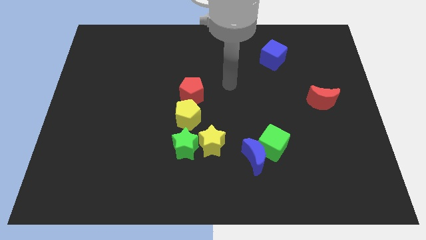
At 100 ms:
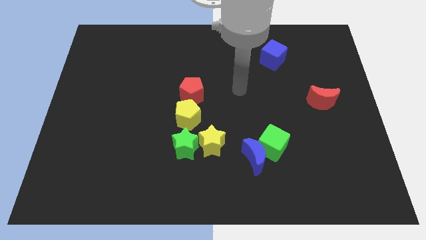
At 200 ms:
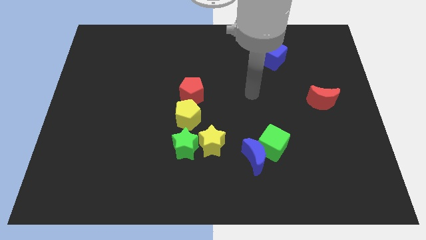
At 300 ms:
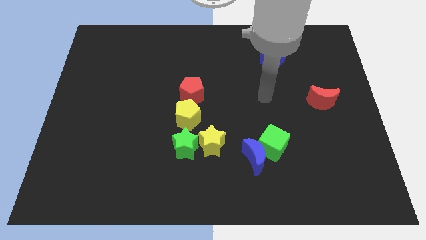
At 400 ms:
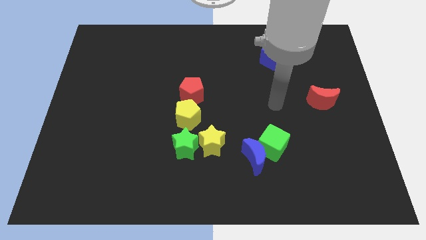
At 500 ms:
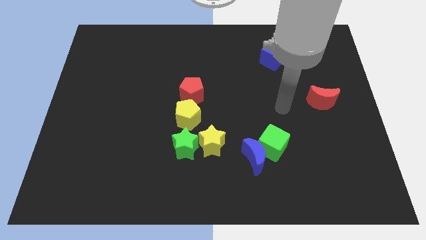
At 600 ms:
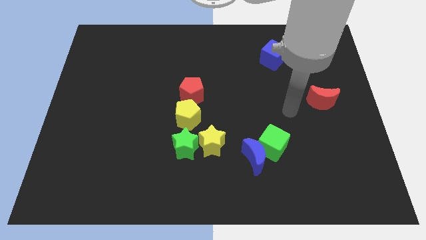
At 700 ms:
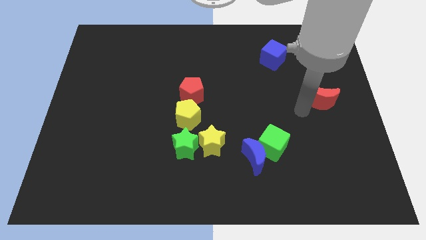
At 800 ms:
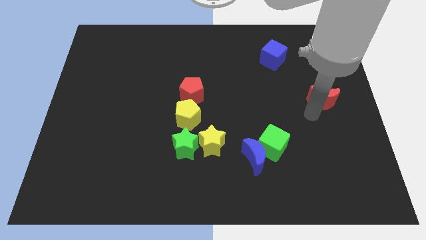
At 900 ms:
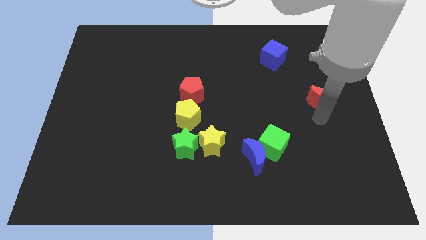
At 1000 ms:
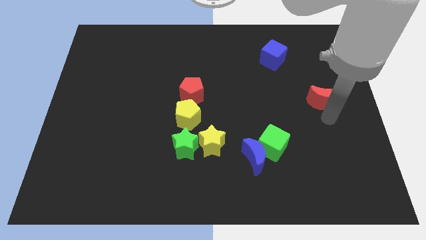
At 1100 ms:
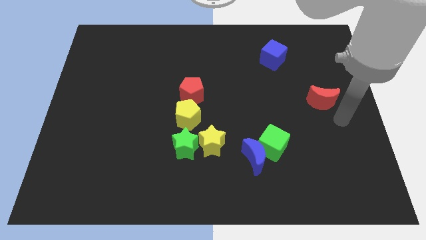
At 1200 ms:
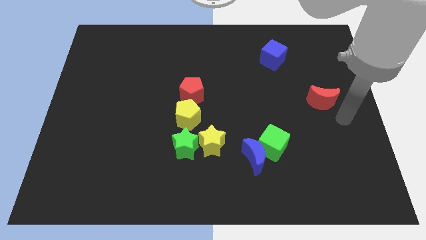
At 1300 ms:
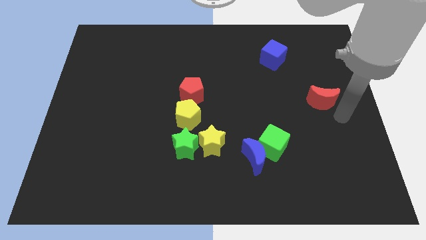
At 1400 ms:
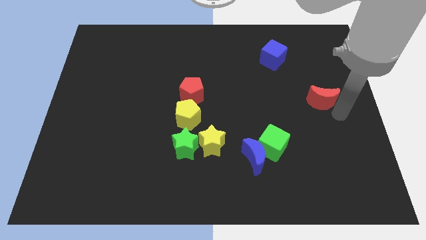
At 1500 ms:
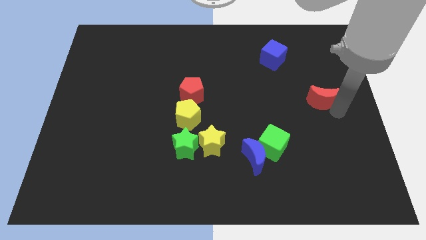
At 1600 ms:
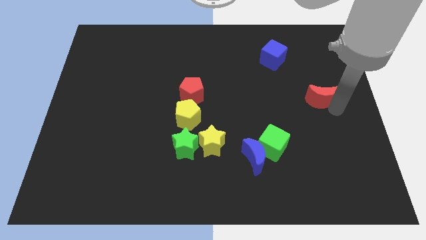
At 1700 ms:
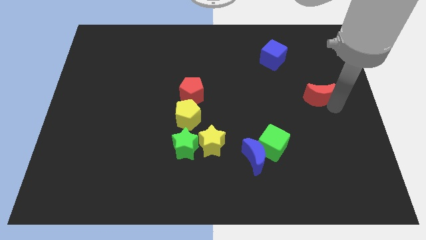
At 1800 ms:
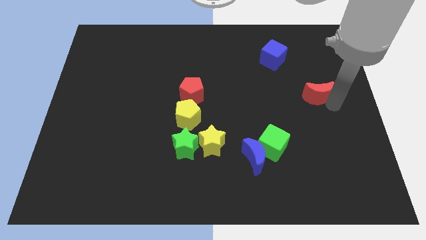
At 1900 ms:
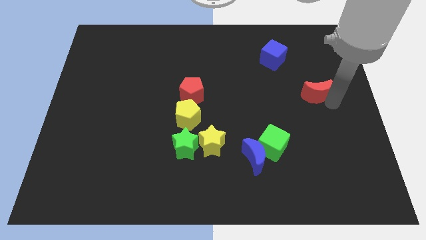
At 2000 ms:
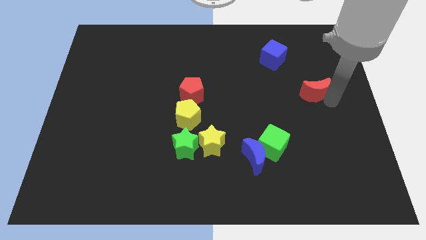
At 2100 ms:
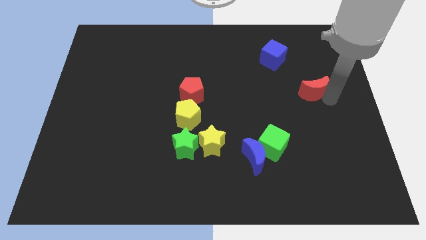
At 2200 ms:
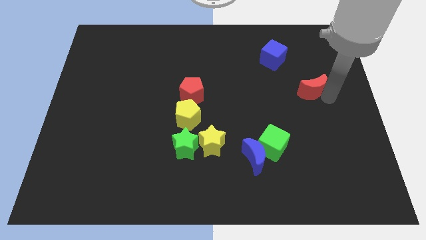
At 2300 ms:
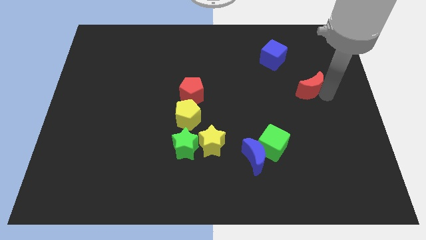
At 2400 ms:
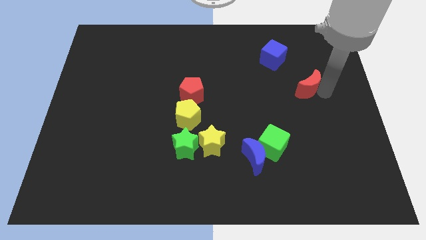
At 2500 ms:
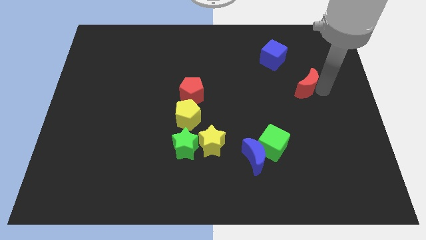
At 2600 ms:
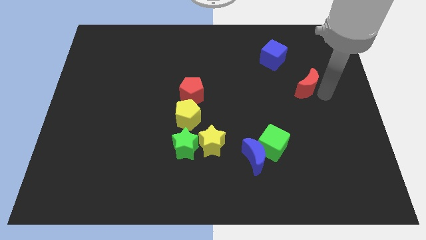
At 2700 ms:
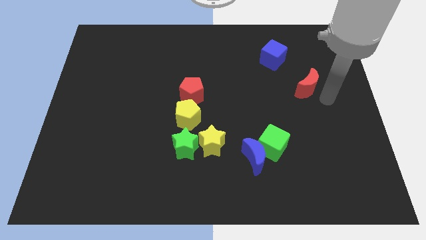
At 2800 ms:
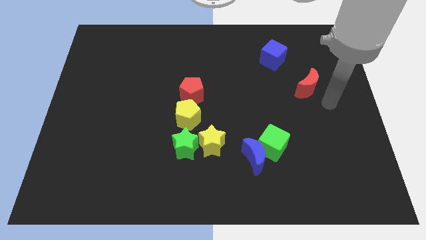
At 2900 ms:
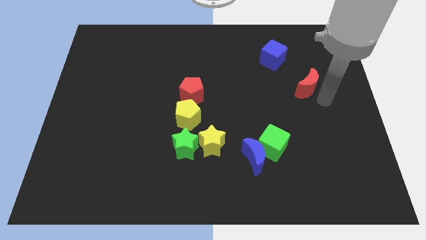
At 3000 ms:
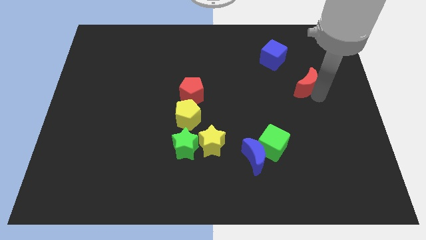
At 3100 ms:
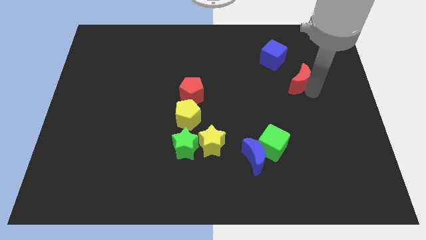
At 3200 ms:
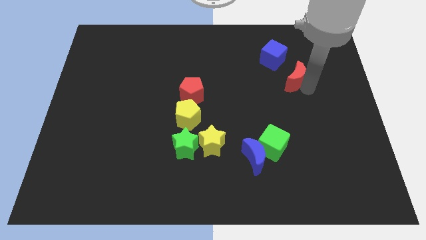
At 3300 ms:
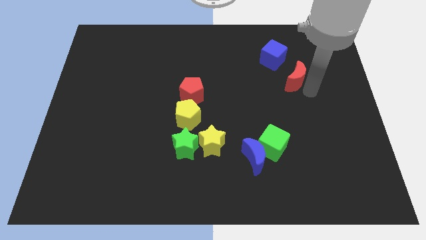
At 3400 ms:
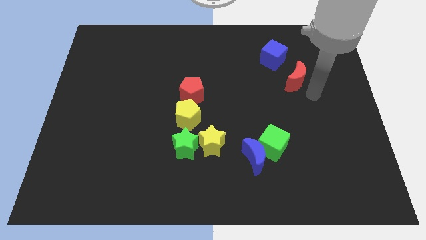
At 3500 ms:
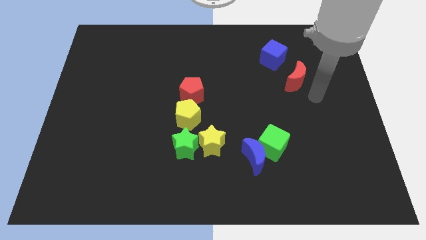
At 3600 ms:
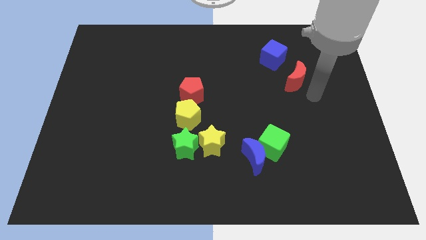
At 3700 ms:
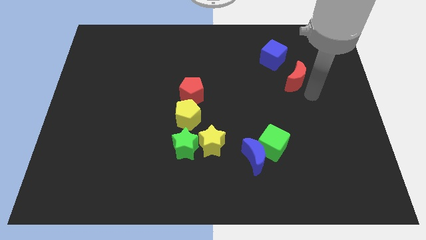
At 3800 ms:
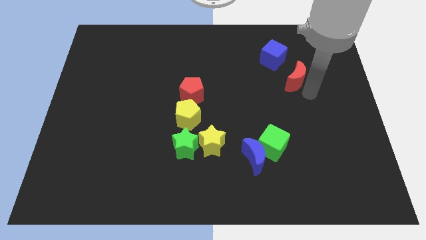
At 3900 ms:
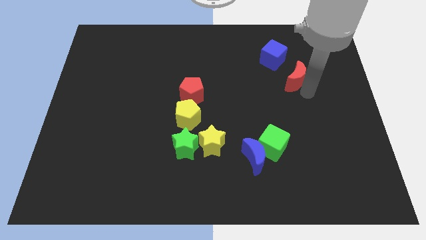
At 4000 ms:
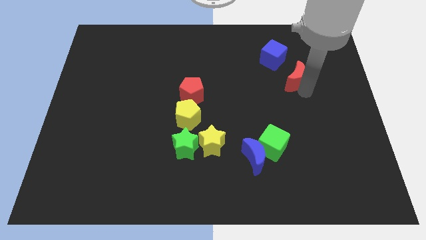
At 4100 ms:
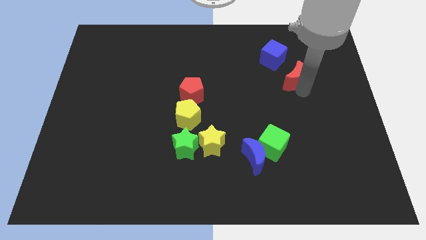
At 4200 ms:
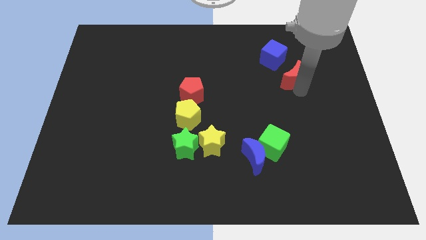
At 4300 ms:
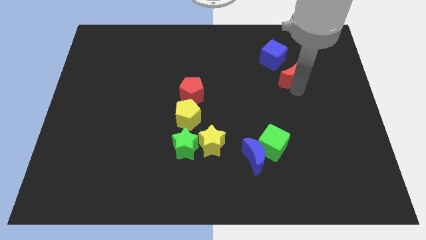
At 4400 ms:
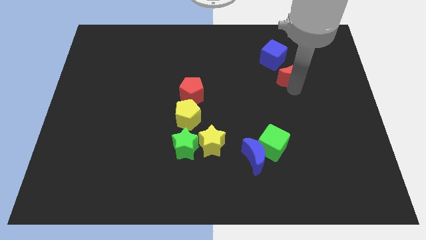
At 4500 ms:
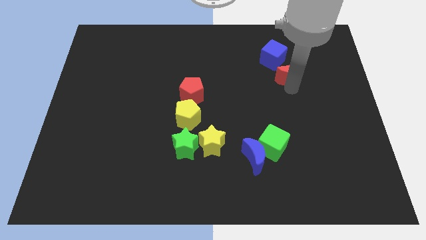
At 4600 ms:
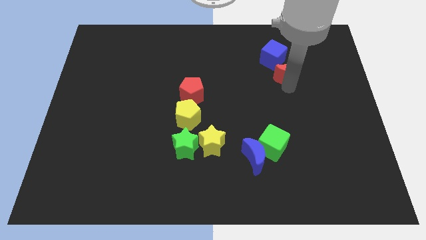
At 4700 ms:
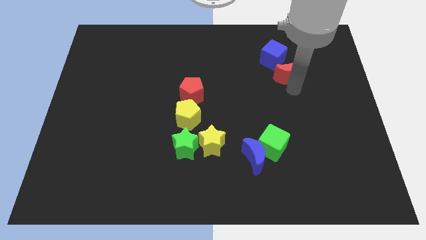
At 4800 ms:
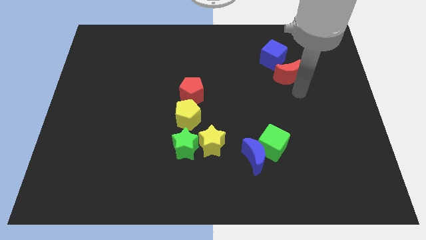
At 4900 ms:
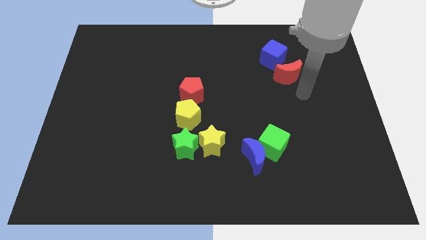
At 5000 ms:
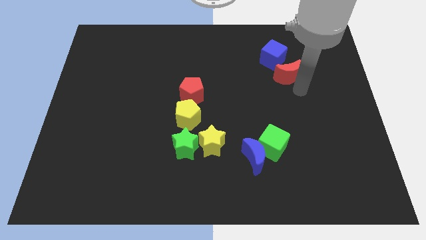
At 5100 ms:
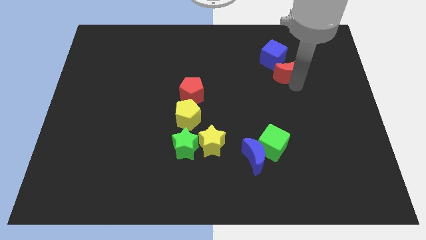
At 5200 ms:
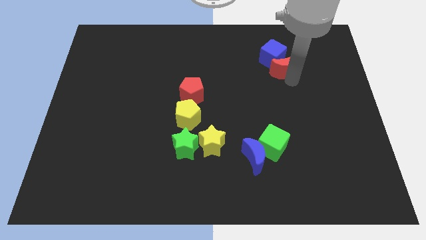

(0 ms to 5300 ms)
move the red moon next to the blue cube

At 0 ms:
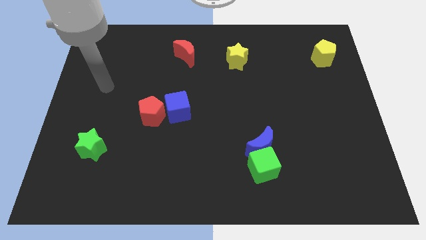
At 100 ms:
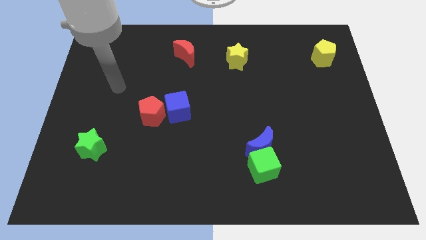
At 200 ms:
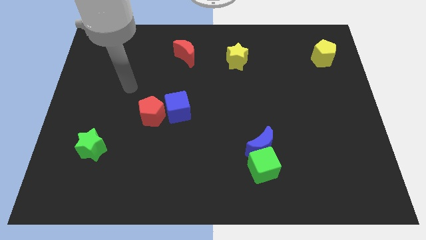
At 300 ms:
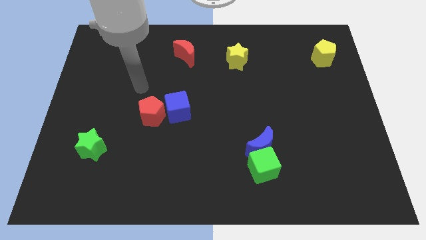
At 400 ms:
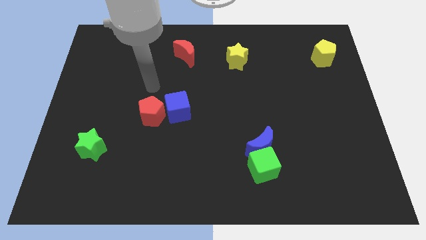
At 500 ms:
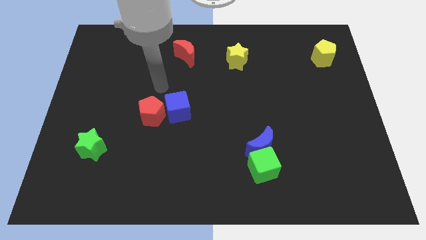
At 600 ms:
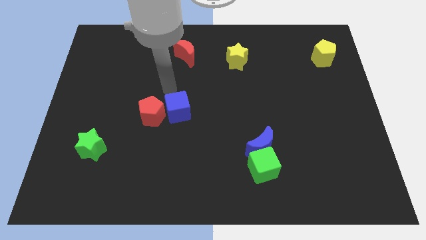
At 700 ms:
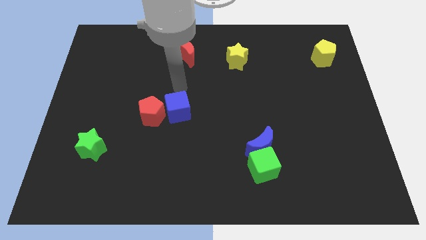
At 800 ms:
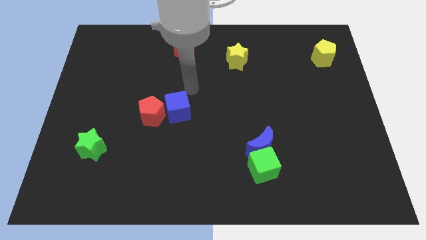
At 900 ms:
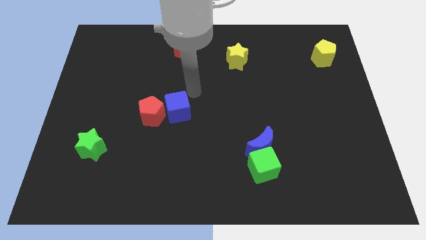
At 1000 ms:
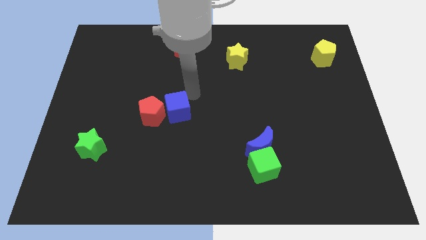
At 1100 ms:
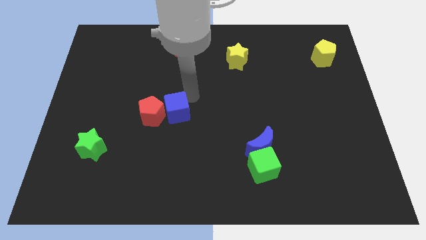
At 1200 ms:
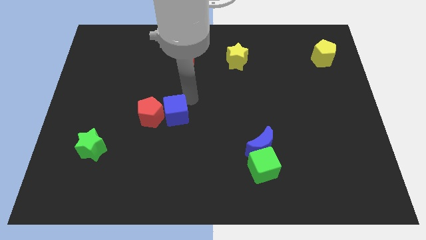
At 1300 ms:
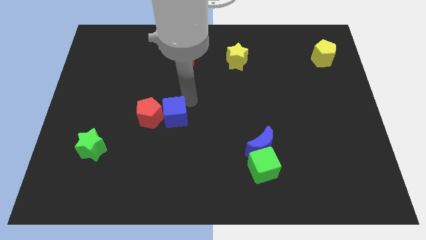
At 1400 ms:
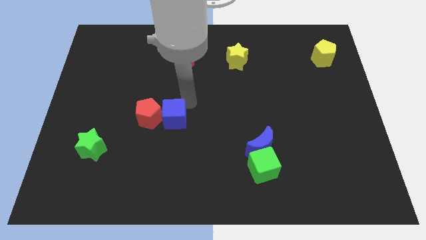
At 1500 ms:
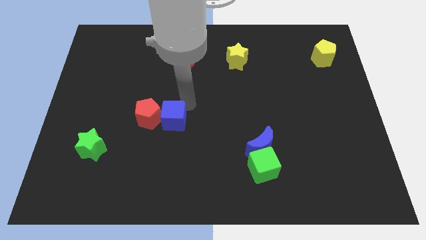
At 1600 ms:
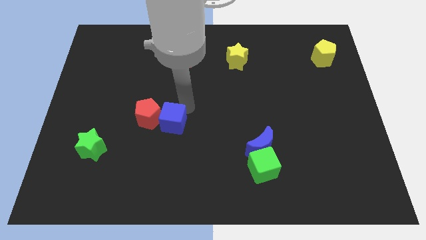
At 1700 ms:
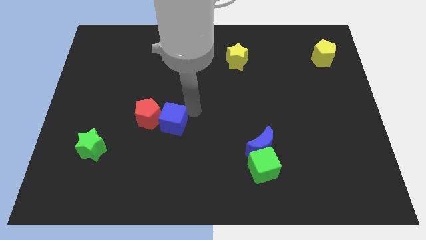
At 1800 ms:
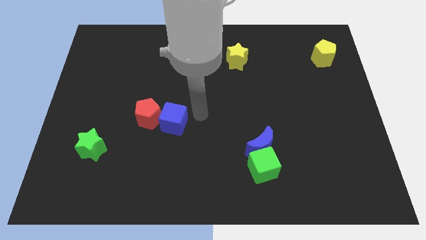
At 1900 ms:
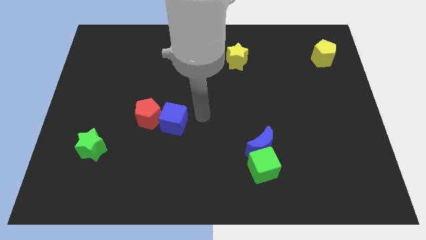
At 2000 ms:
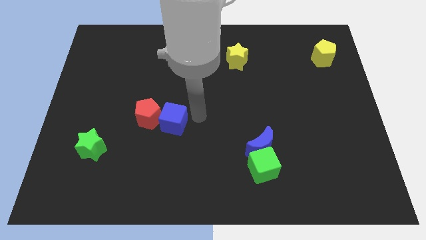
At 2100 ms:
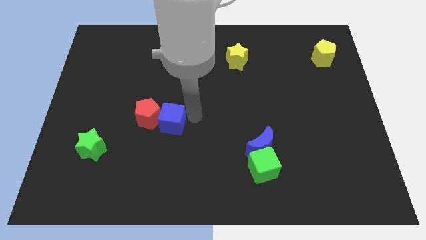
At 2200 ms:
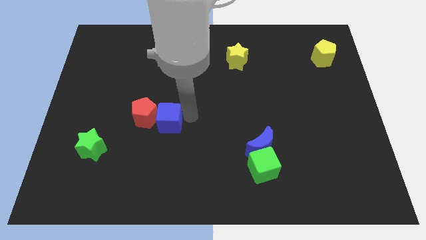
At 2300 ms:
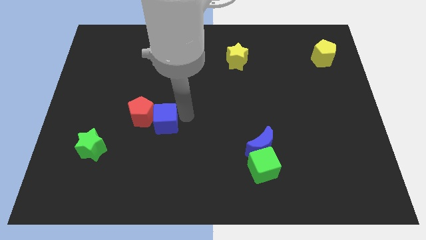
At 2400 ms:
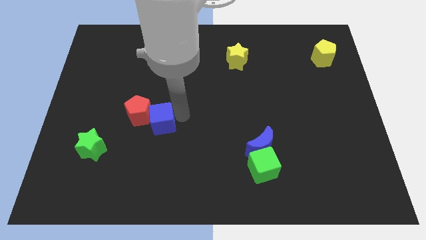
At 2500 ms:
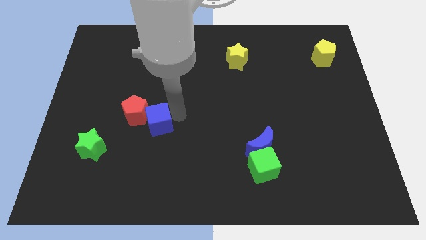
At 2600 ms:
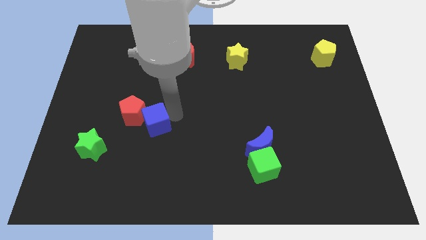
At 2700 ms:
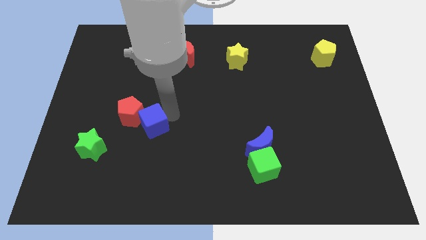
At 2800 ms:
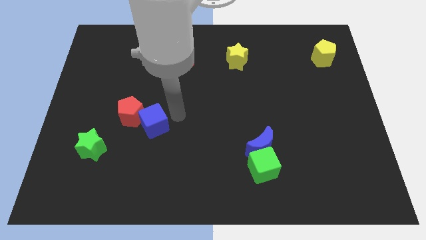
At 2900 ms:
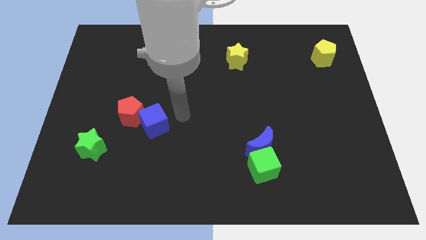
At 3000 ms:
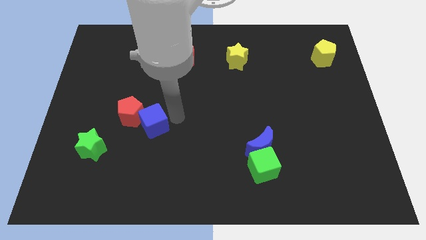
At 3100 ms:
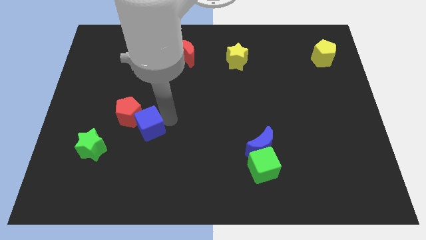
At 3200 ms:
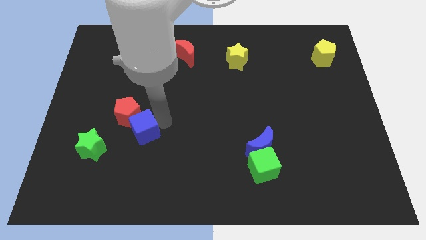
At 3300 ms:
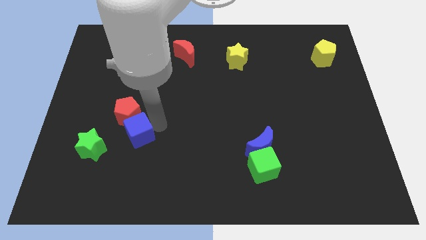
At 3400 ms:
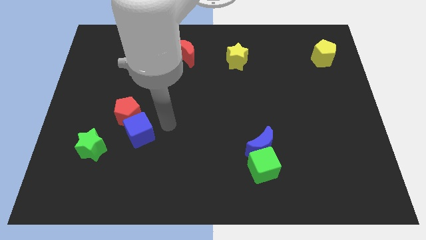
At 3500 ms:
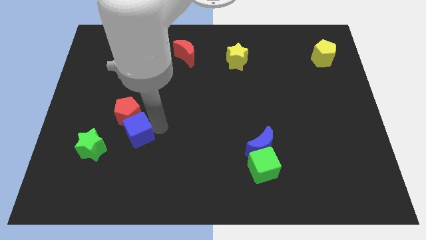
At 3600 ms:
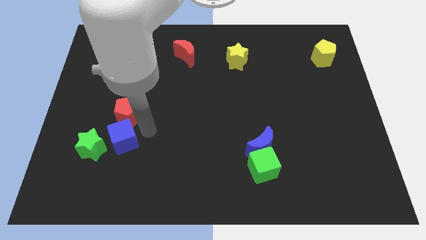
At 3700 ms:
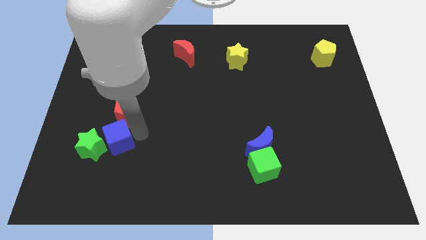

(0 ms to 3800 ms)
put the blue cube to the green star
